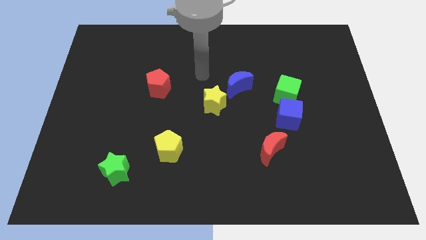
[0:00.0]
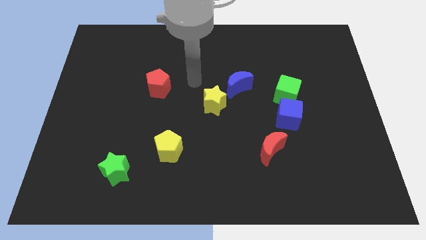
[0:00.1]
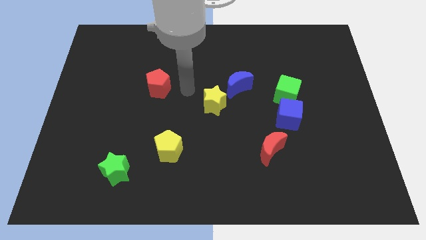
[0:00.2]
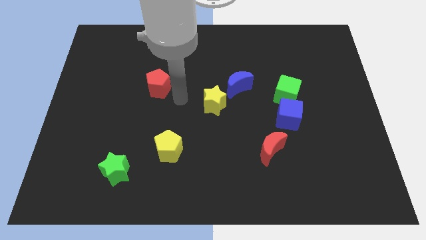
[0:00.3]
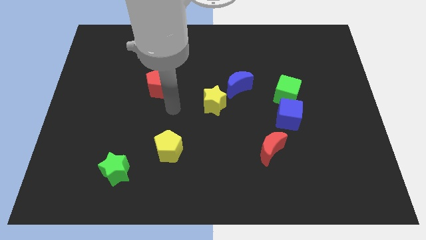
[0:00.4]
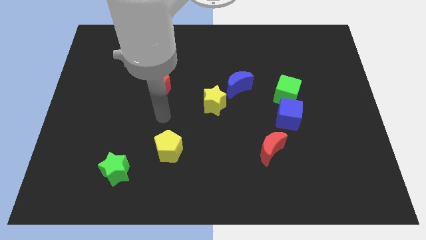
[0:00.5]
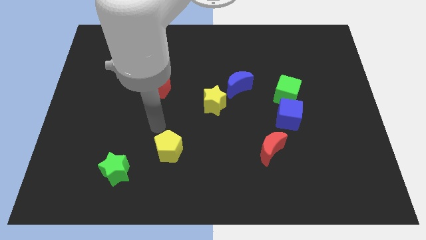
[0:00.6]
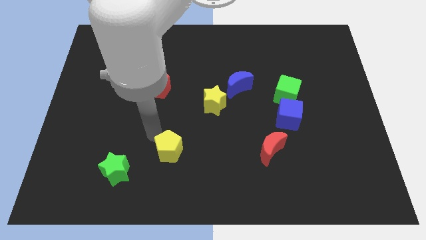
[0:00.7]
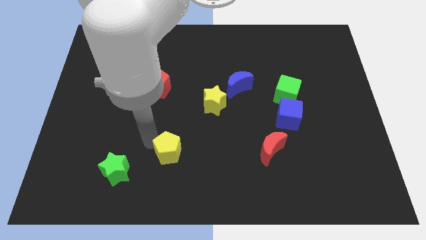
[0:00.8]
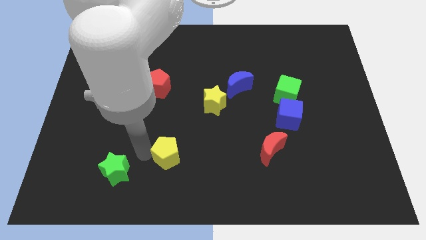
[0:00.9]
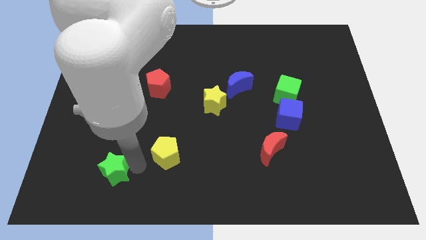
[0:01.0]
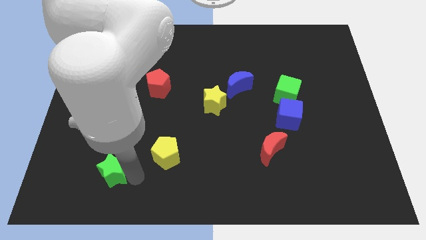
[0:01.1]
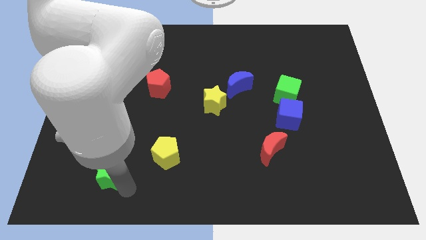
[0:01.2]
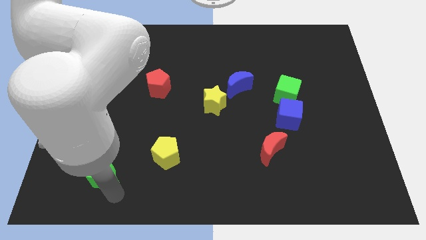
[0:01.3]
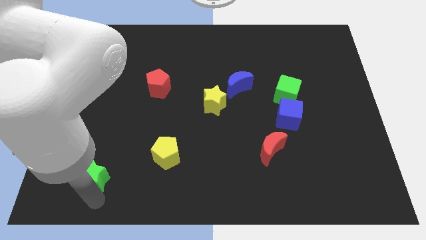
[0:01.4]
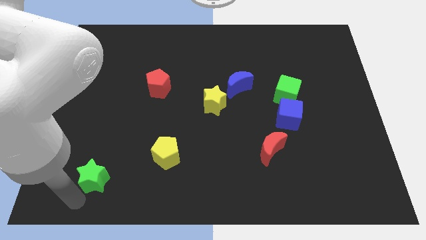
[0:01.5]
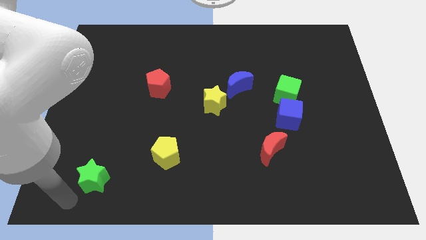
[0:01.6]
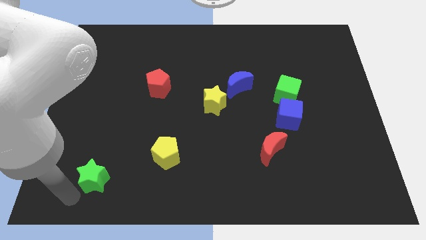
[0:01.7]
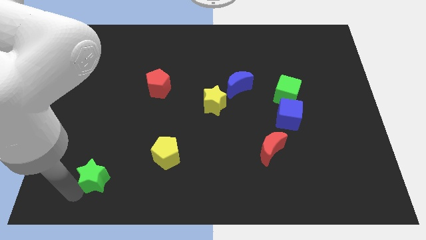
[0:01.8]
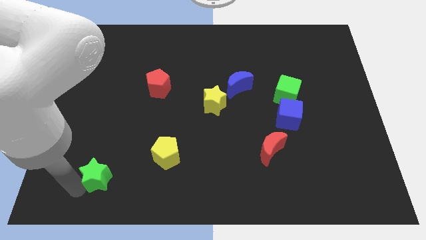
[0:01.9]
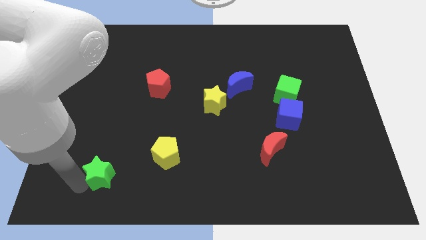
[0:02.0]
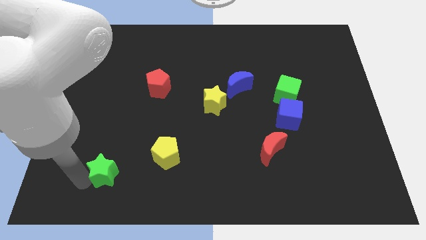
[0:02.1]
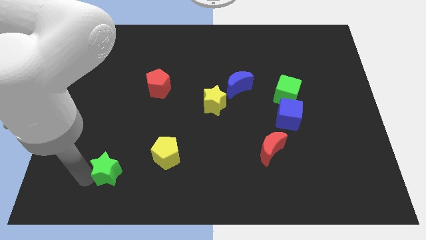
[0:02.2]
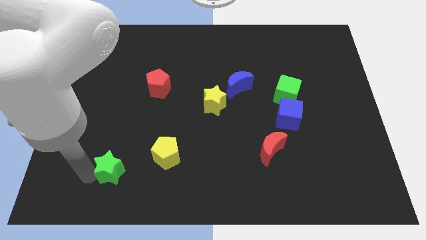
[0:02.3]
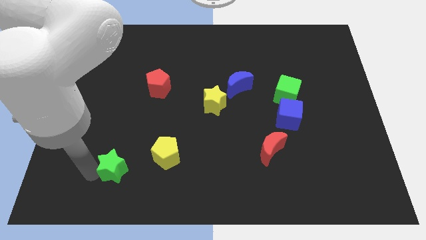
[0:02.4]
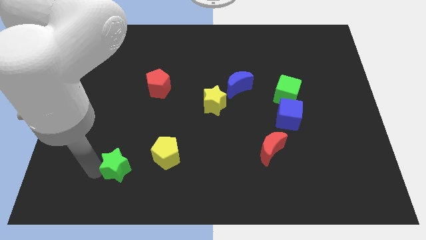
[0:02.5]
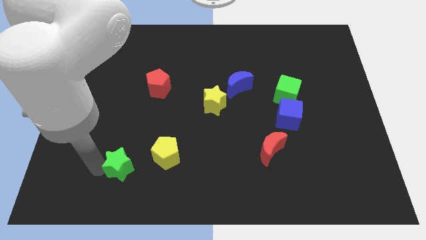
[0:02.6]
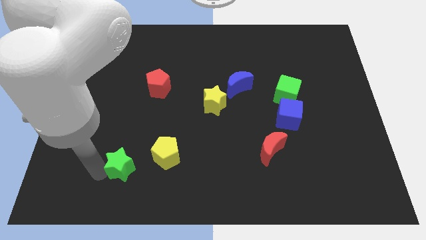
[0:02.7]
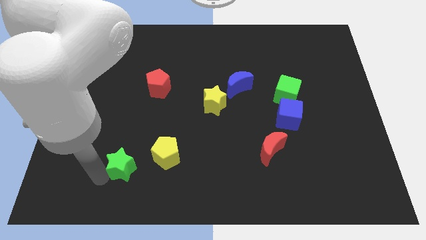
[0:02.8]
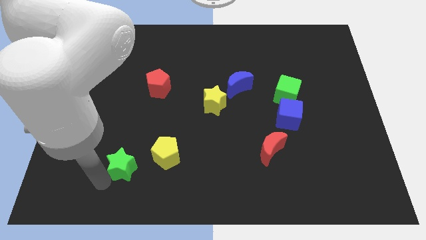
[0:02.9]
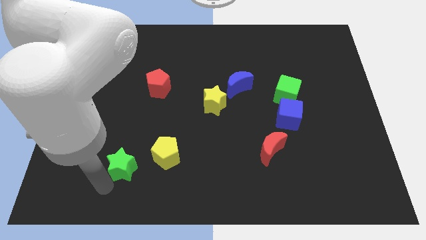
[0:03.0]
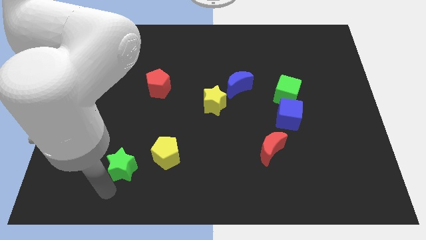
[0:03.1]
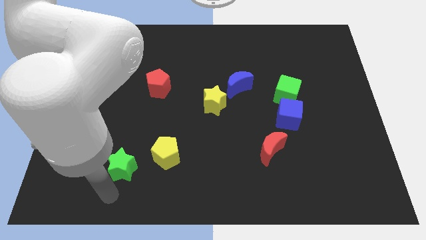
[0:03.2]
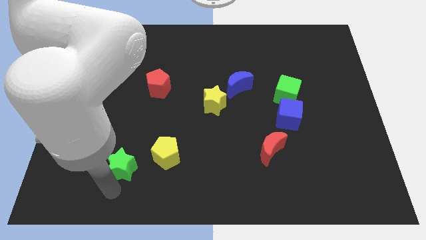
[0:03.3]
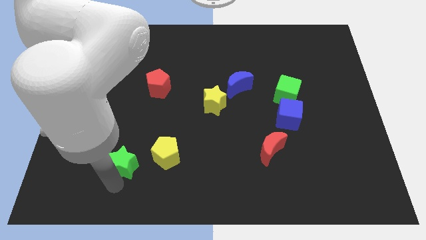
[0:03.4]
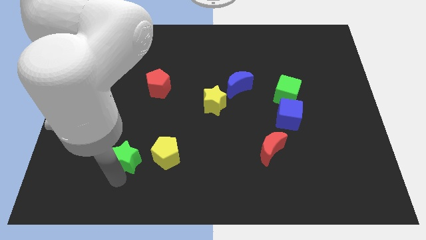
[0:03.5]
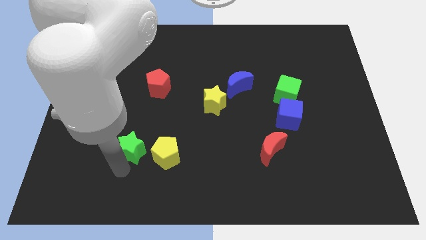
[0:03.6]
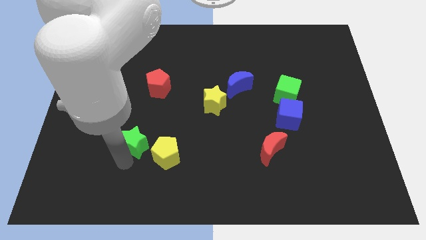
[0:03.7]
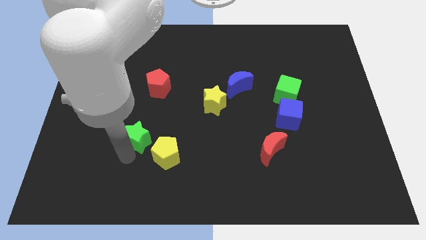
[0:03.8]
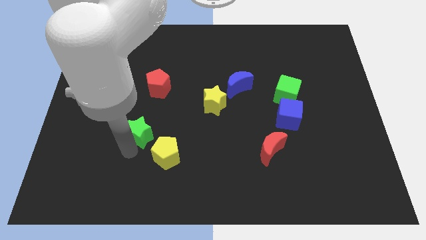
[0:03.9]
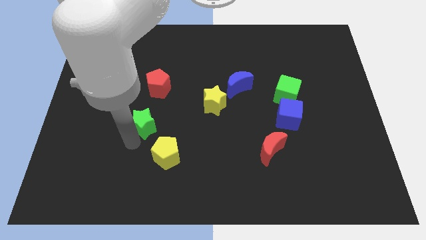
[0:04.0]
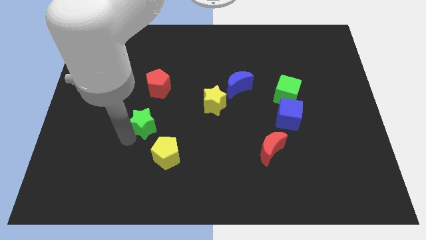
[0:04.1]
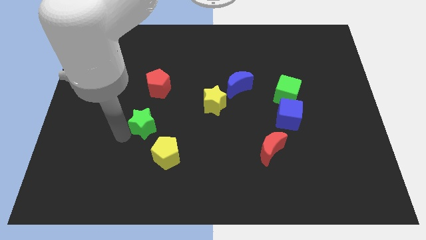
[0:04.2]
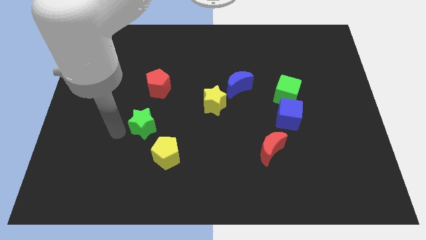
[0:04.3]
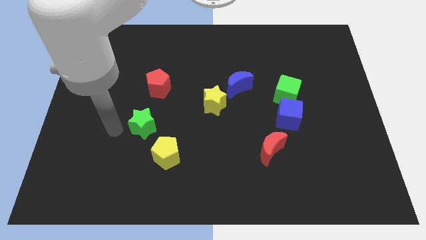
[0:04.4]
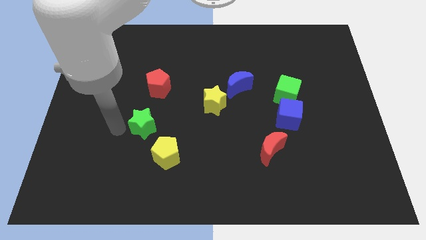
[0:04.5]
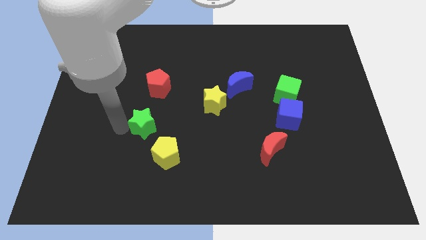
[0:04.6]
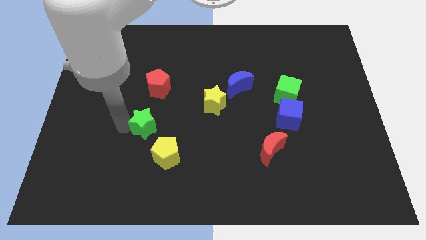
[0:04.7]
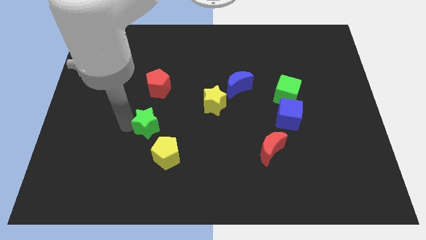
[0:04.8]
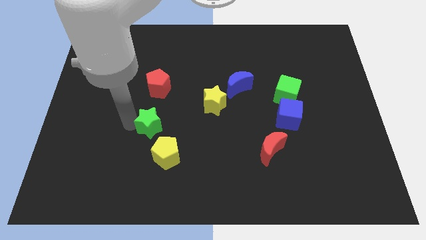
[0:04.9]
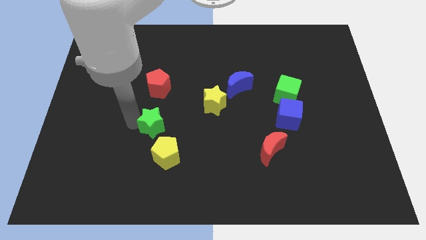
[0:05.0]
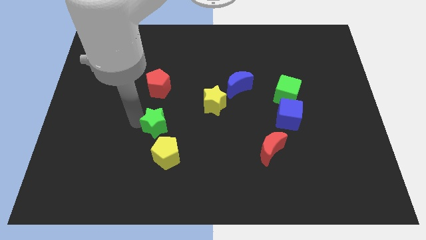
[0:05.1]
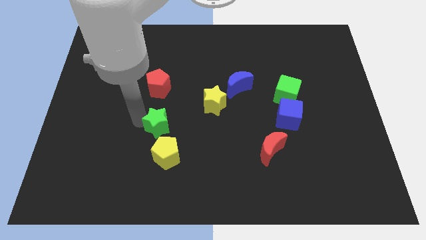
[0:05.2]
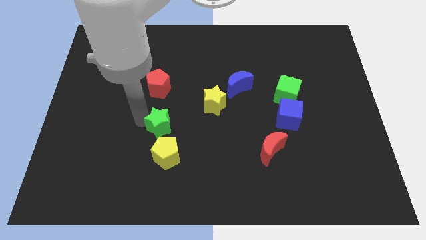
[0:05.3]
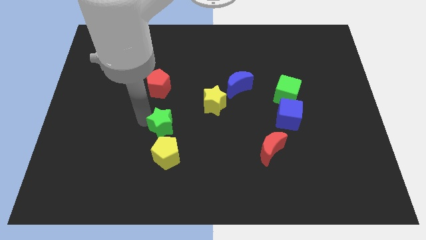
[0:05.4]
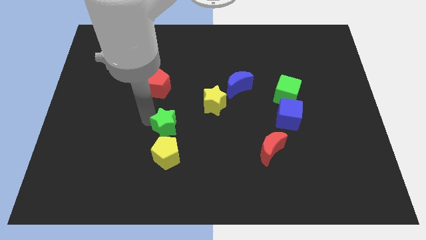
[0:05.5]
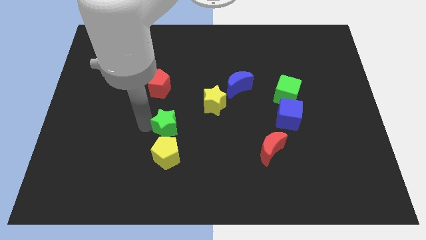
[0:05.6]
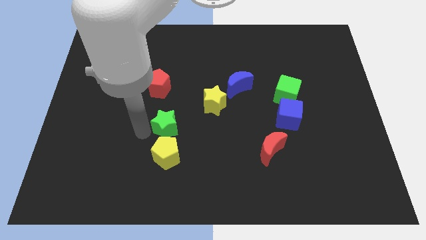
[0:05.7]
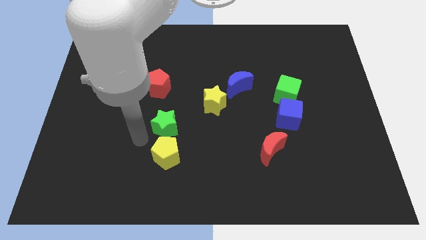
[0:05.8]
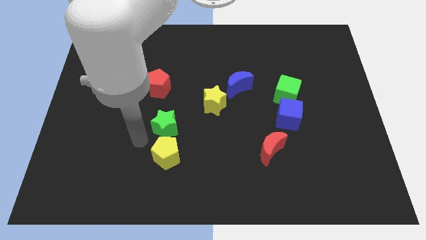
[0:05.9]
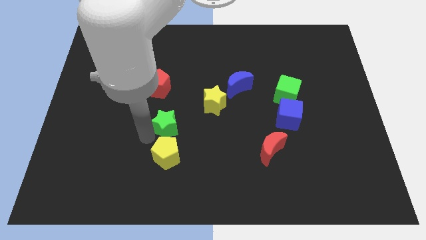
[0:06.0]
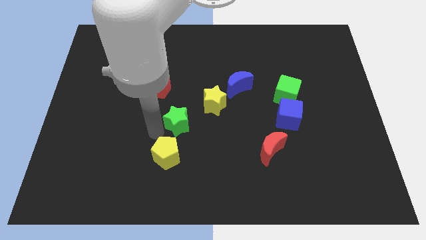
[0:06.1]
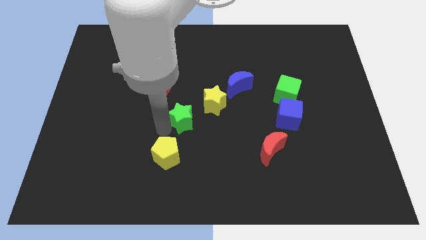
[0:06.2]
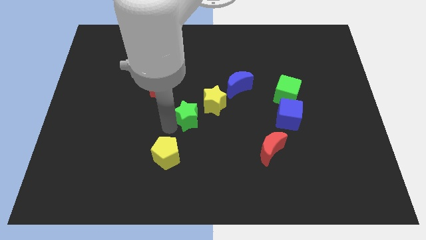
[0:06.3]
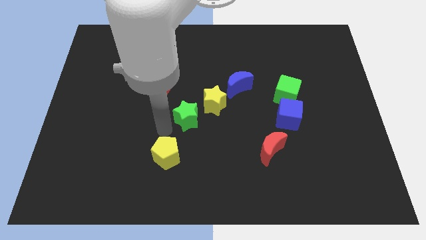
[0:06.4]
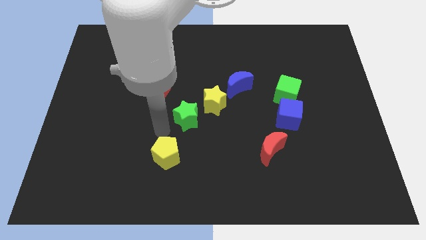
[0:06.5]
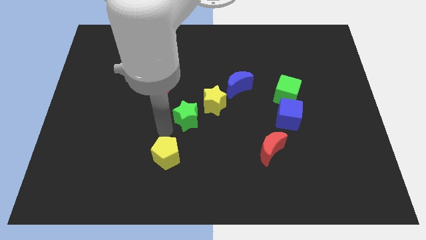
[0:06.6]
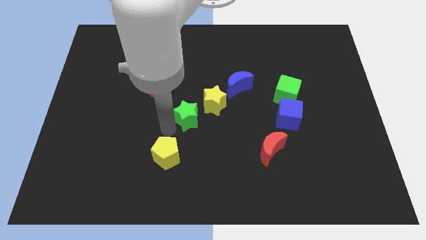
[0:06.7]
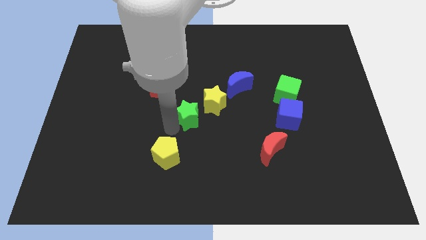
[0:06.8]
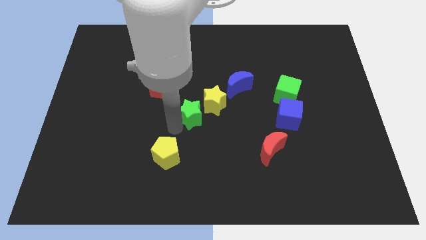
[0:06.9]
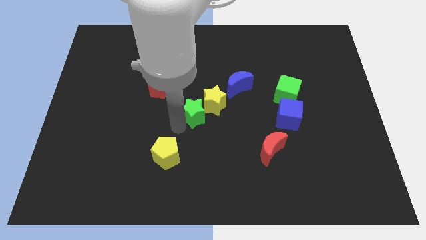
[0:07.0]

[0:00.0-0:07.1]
push the green star close to the yellow star
